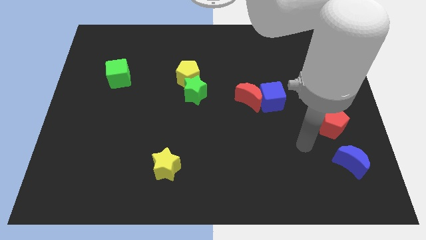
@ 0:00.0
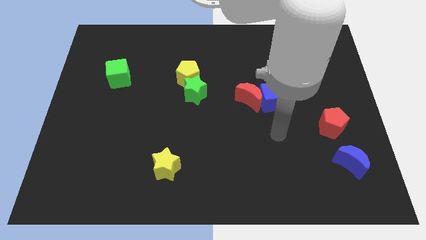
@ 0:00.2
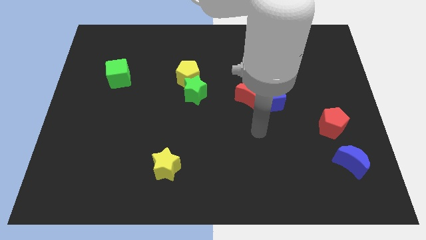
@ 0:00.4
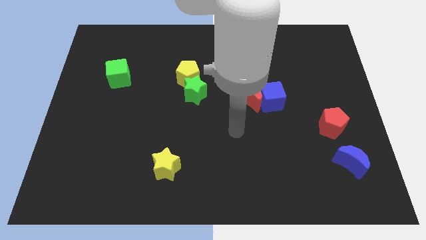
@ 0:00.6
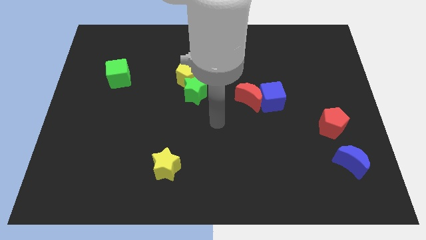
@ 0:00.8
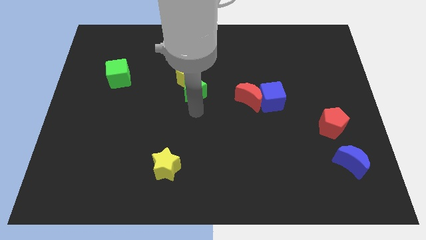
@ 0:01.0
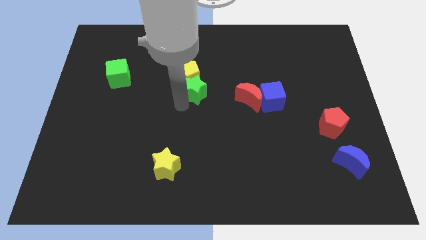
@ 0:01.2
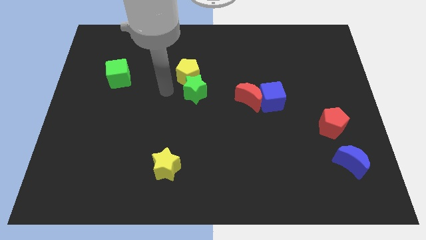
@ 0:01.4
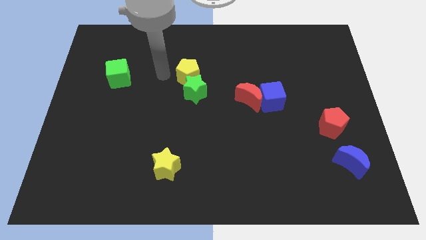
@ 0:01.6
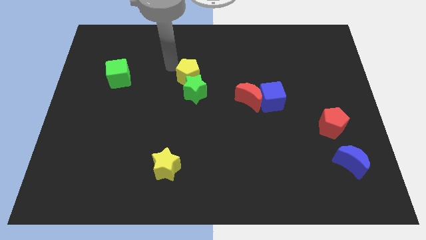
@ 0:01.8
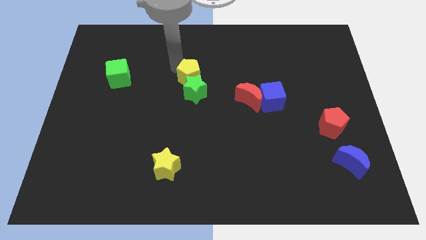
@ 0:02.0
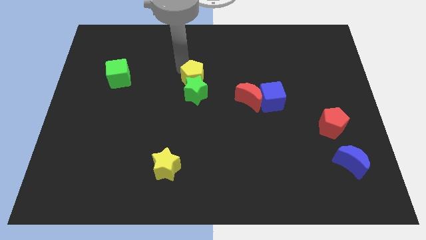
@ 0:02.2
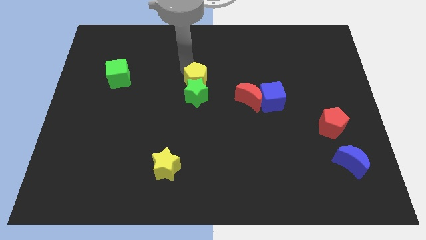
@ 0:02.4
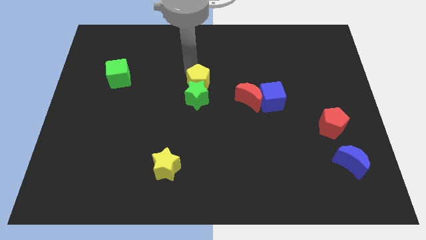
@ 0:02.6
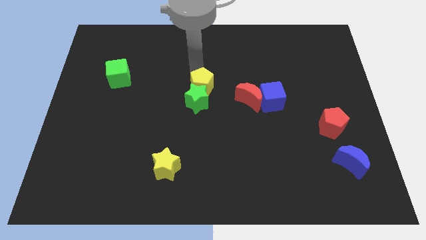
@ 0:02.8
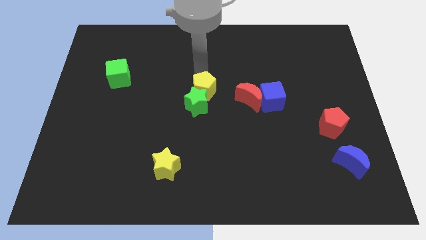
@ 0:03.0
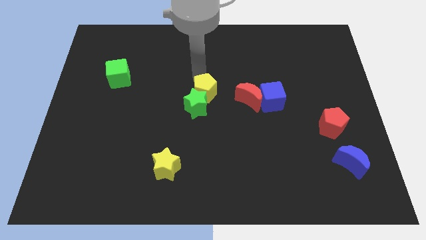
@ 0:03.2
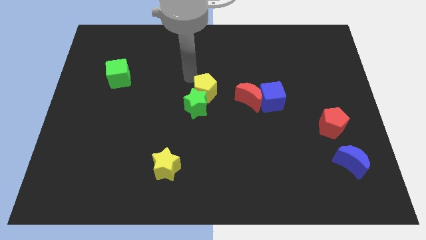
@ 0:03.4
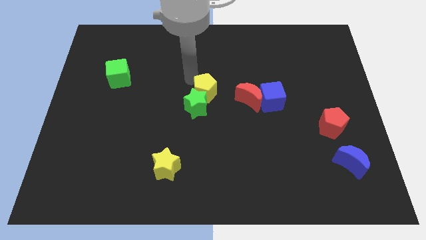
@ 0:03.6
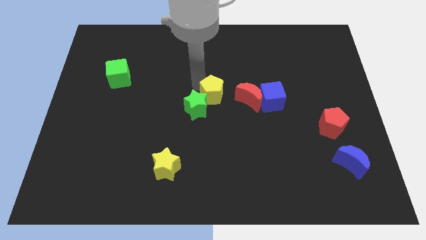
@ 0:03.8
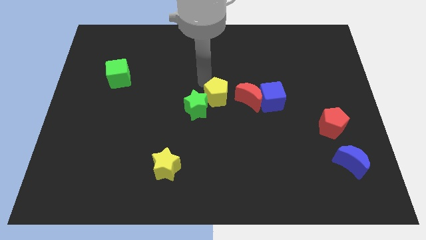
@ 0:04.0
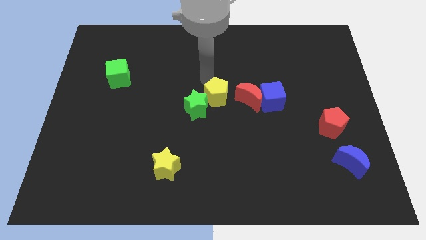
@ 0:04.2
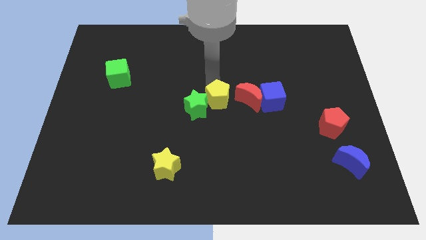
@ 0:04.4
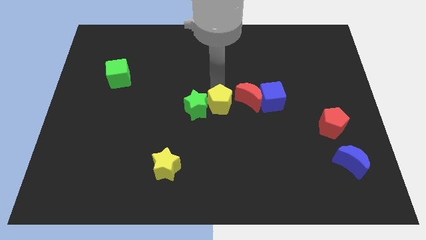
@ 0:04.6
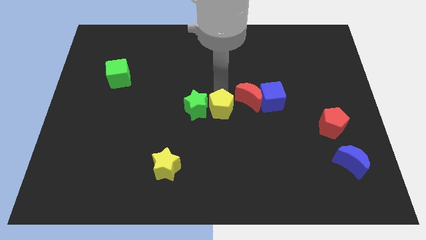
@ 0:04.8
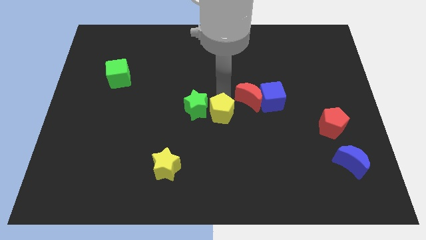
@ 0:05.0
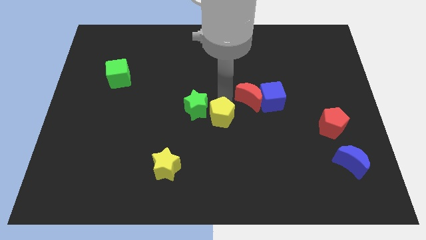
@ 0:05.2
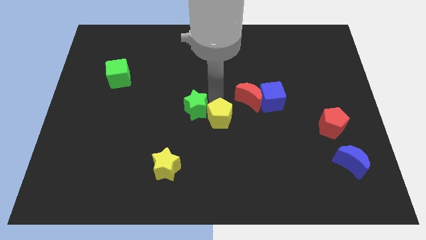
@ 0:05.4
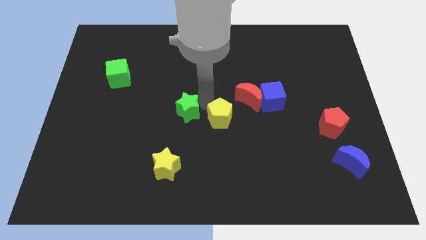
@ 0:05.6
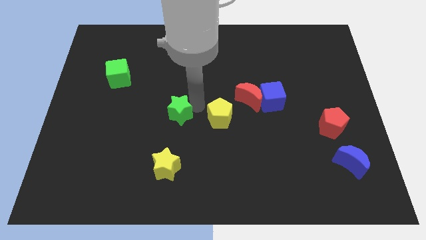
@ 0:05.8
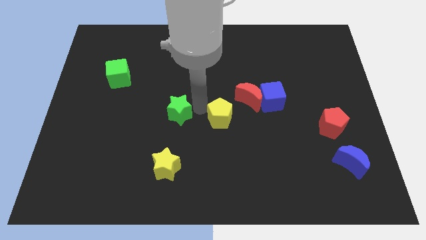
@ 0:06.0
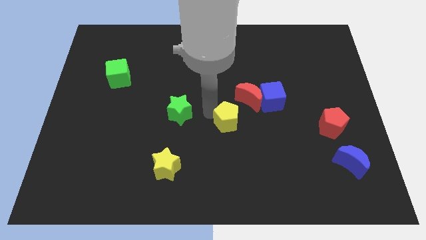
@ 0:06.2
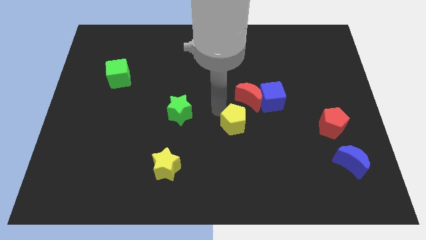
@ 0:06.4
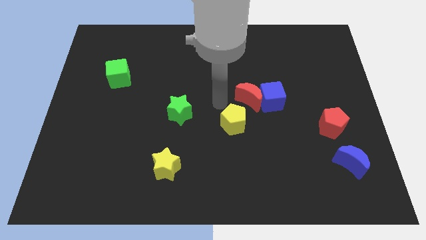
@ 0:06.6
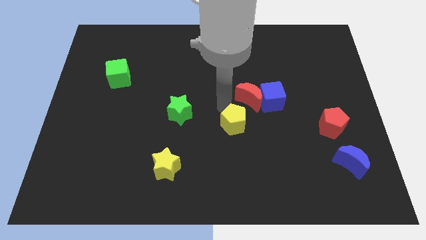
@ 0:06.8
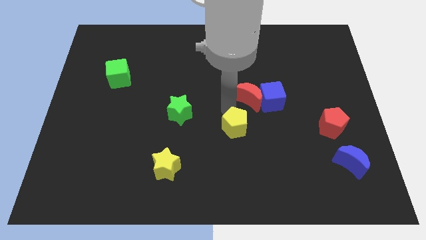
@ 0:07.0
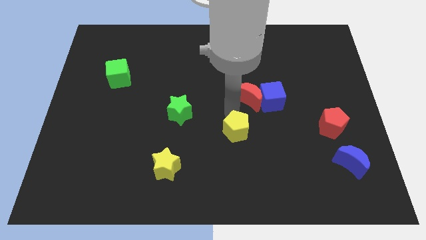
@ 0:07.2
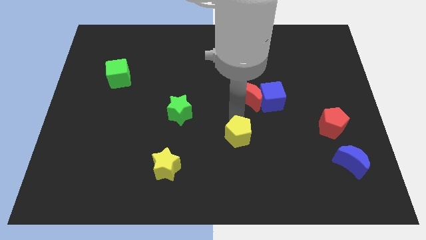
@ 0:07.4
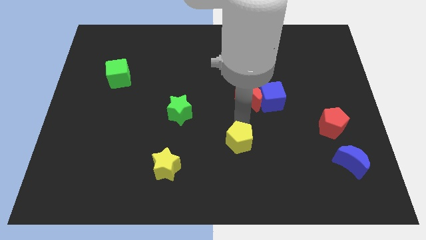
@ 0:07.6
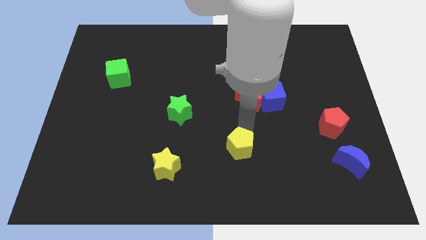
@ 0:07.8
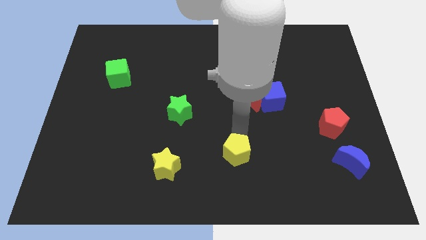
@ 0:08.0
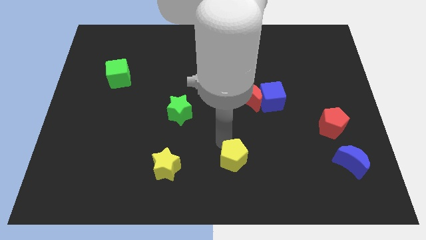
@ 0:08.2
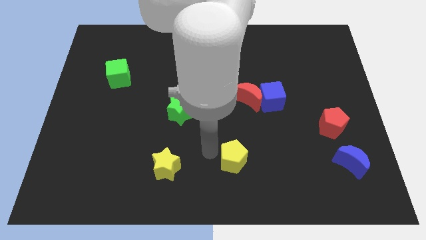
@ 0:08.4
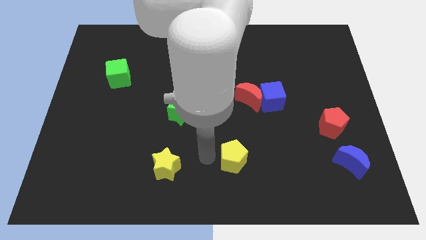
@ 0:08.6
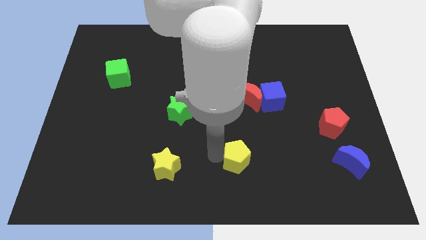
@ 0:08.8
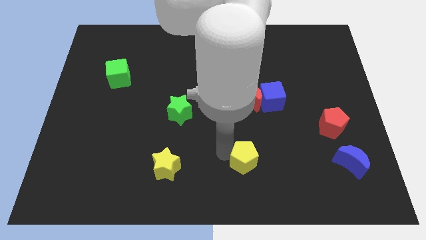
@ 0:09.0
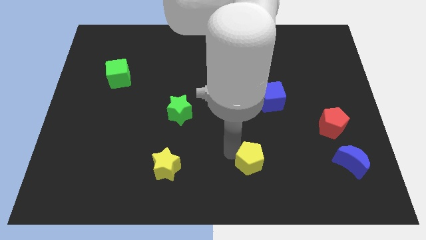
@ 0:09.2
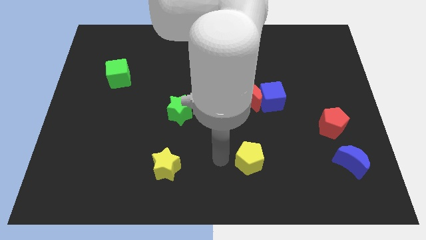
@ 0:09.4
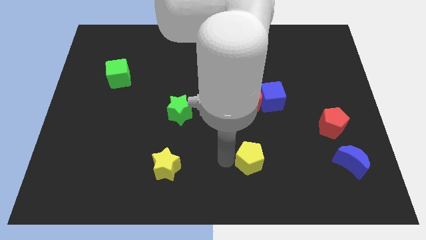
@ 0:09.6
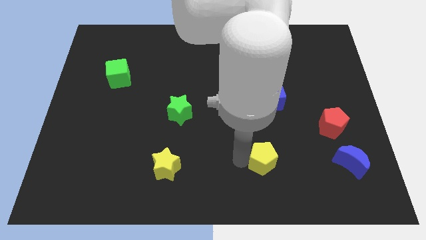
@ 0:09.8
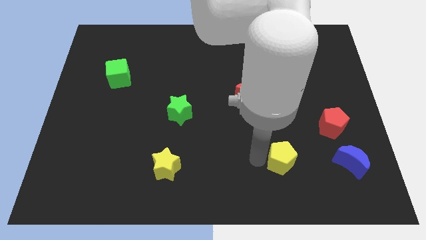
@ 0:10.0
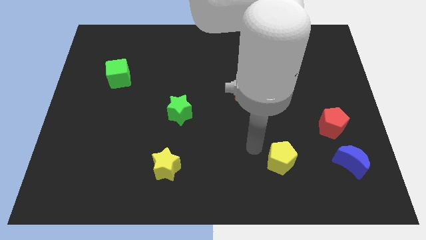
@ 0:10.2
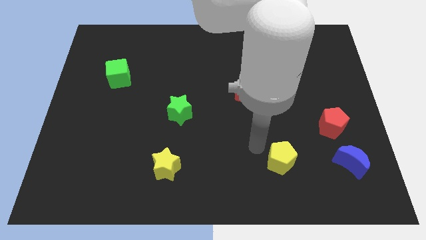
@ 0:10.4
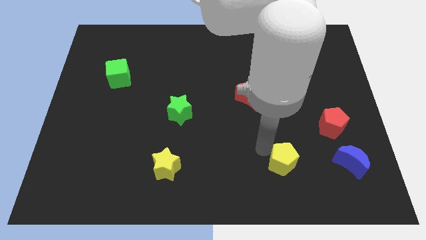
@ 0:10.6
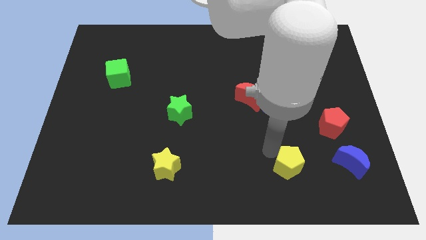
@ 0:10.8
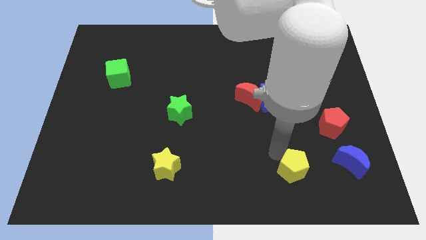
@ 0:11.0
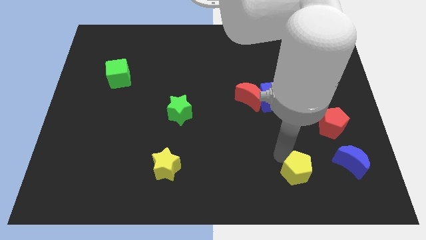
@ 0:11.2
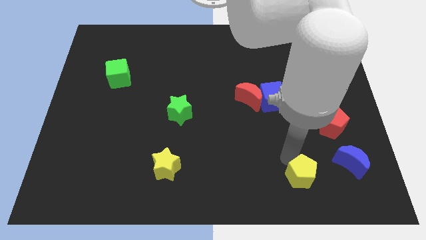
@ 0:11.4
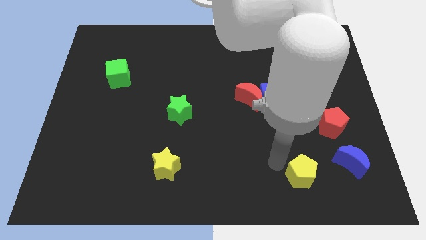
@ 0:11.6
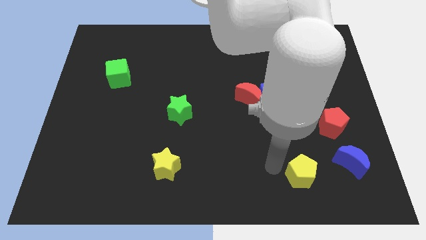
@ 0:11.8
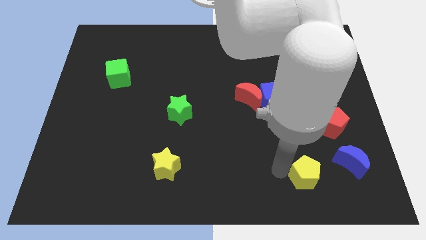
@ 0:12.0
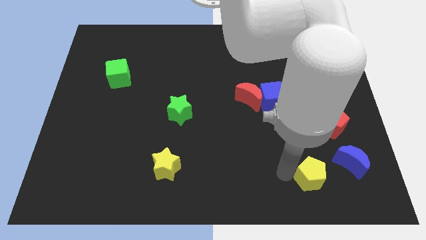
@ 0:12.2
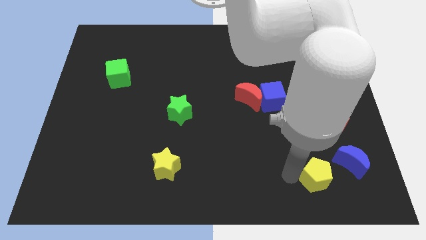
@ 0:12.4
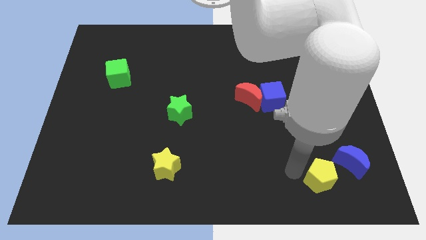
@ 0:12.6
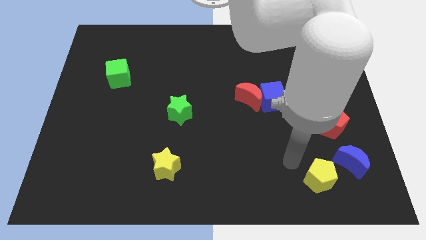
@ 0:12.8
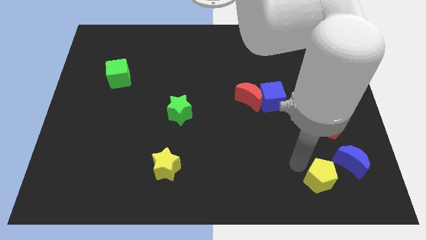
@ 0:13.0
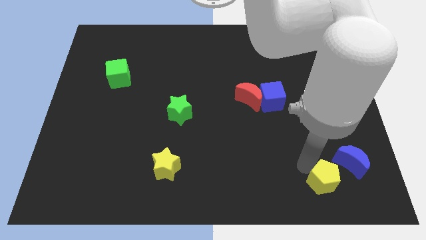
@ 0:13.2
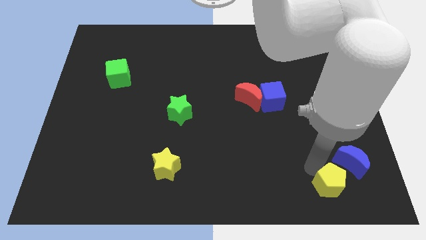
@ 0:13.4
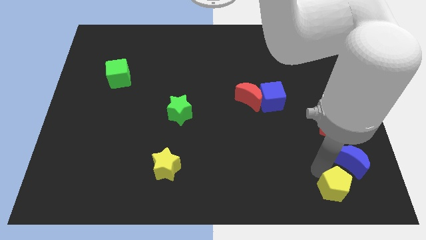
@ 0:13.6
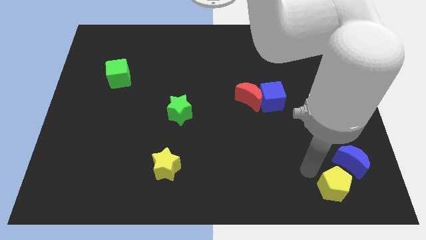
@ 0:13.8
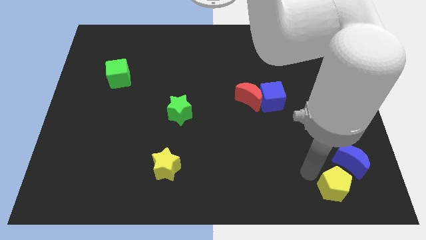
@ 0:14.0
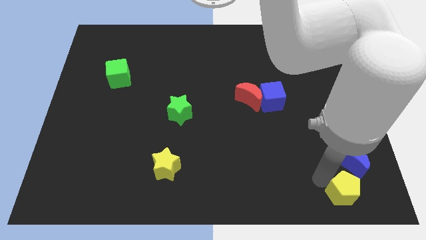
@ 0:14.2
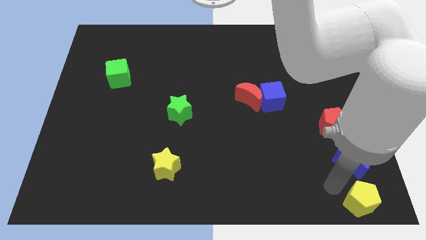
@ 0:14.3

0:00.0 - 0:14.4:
move the yellow pentagon to the bottom right of the board
